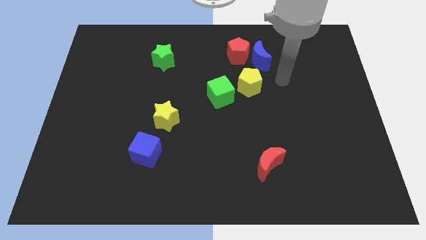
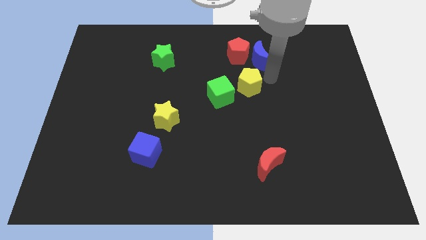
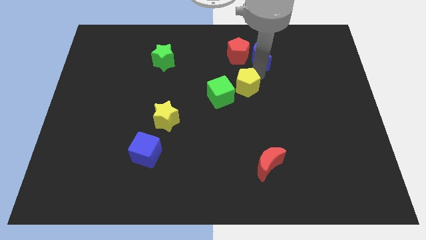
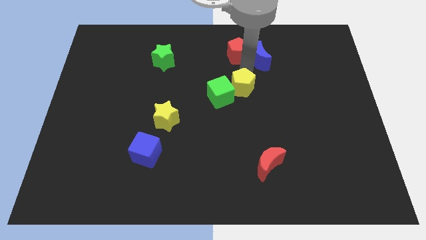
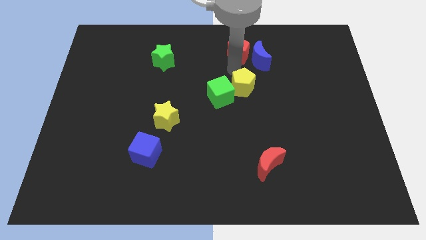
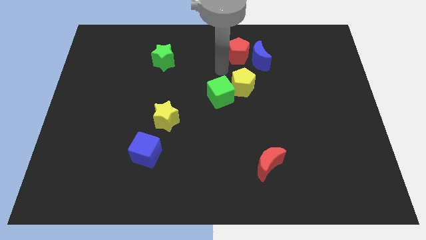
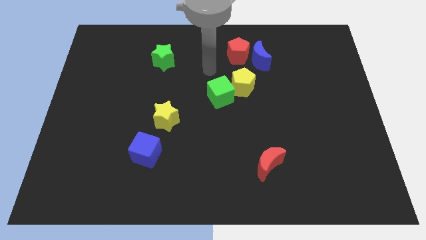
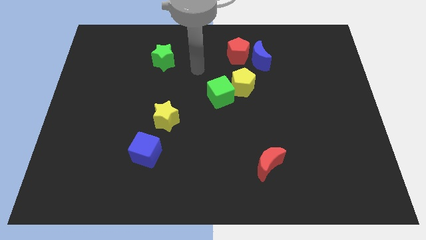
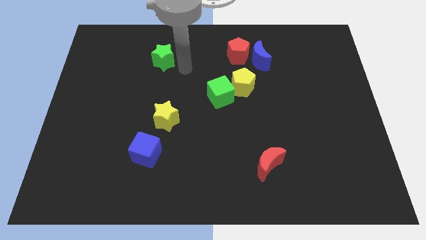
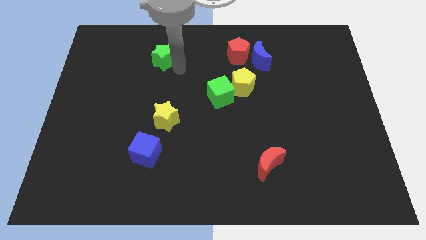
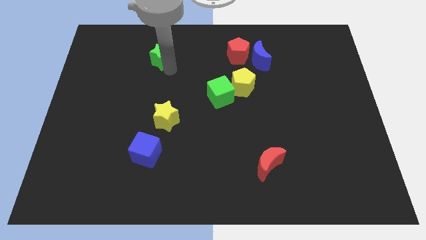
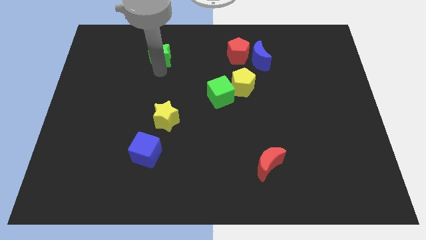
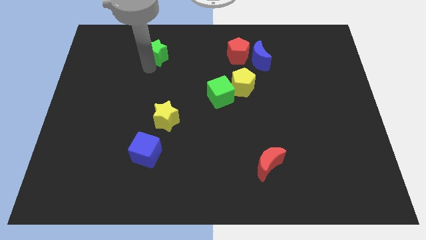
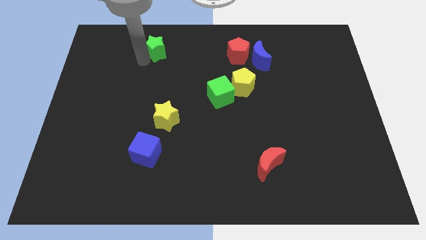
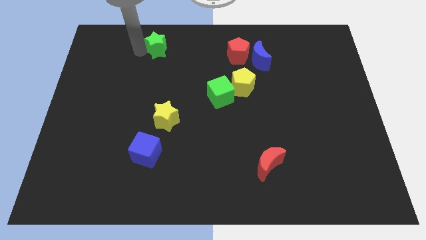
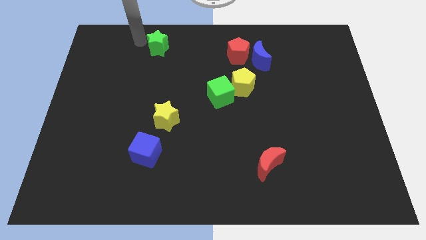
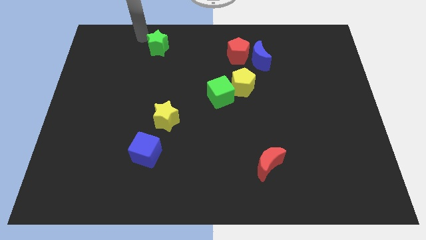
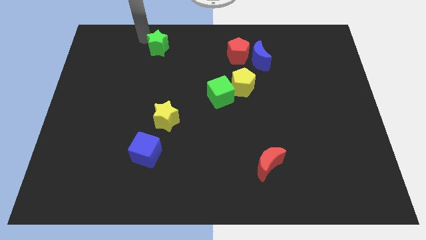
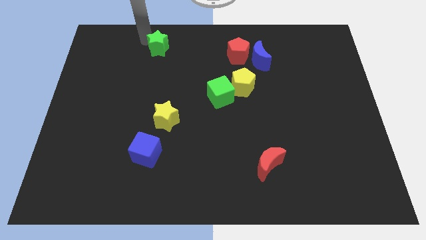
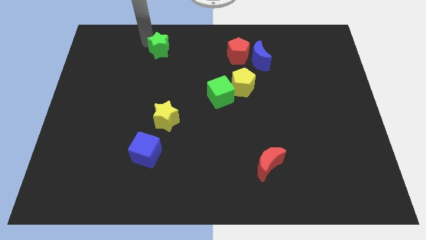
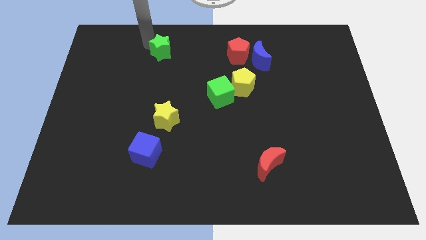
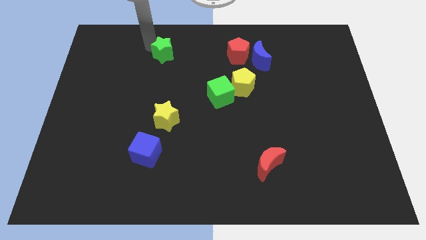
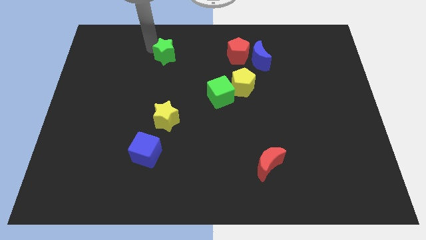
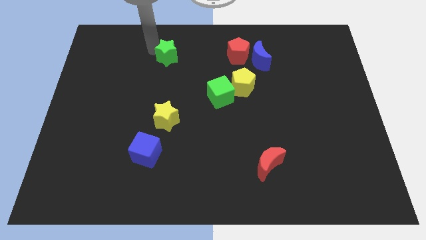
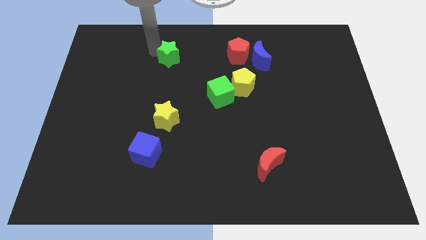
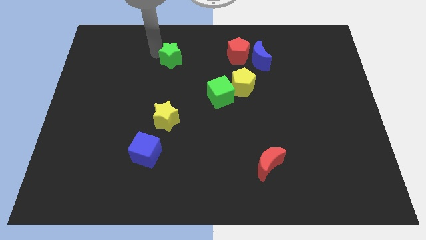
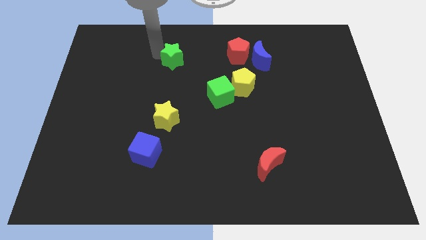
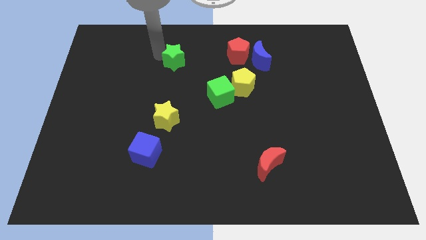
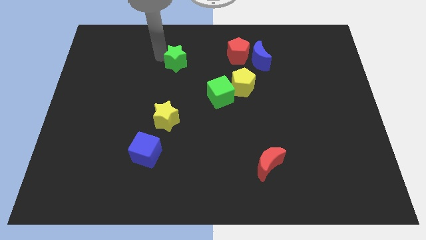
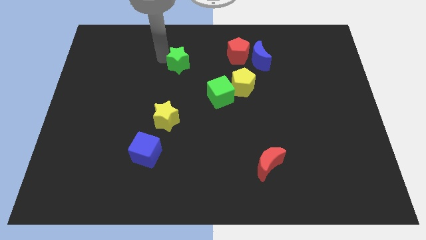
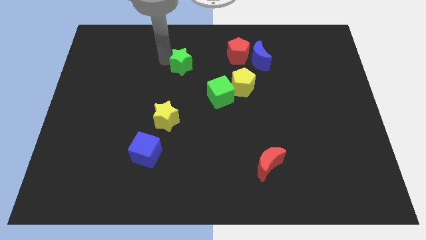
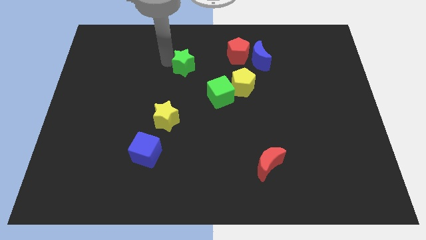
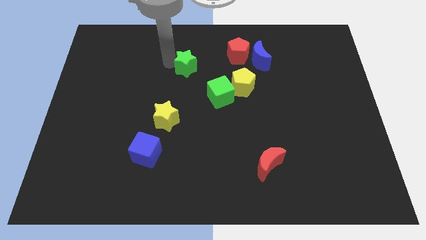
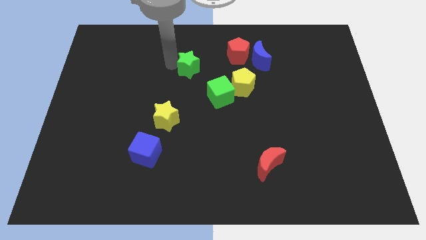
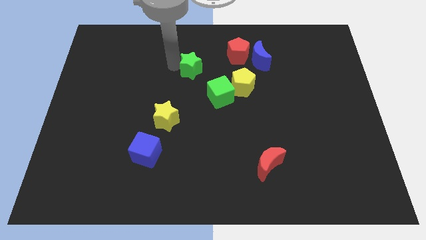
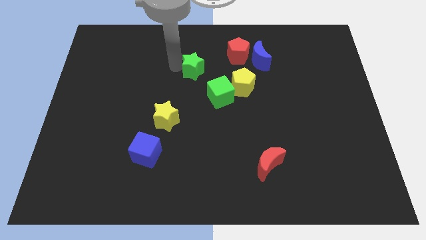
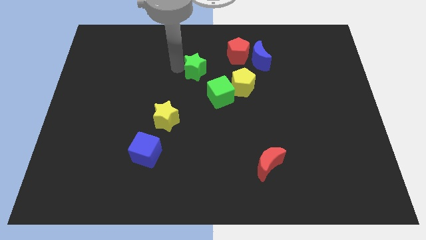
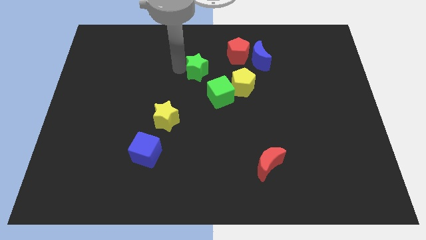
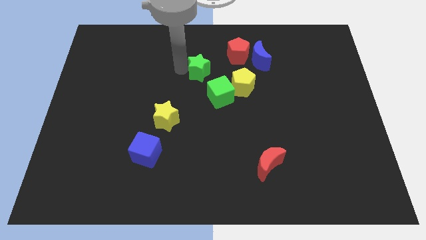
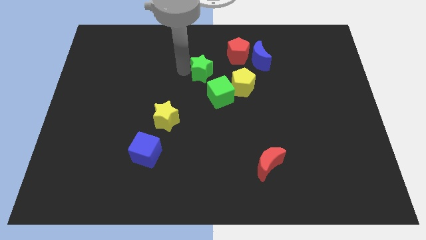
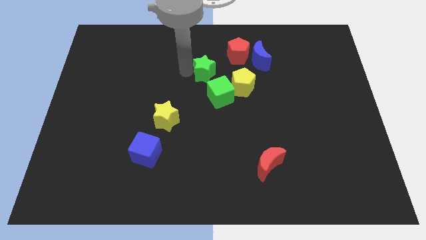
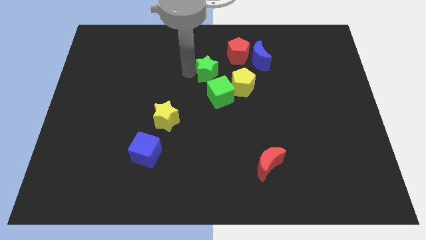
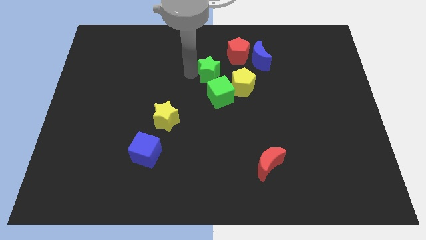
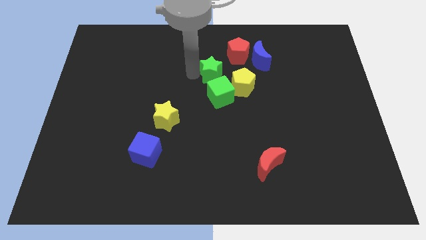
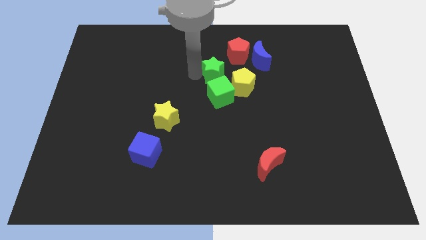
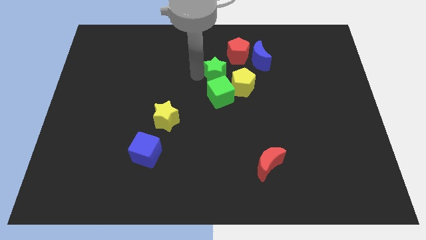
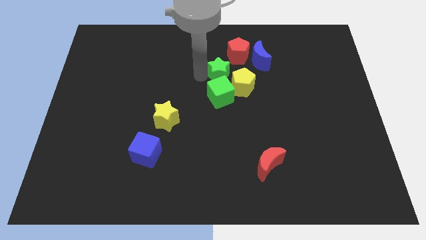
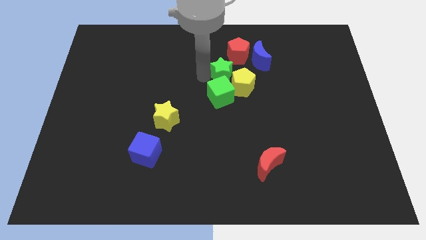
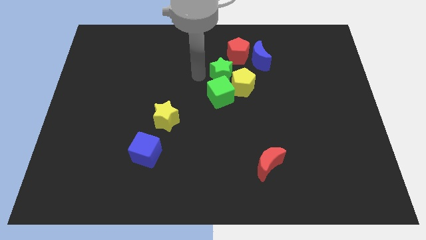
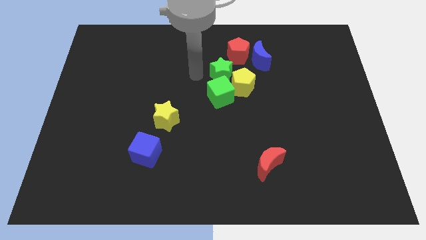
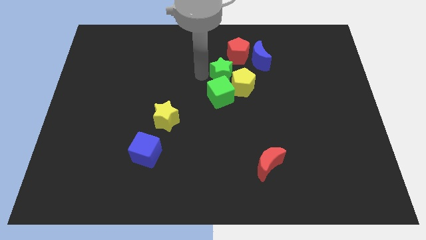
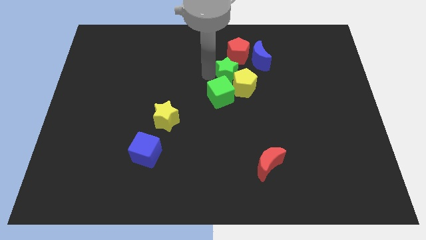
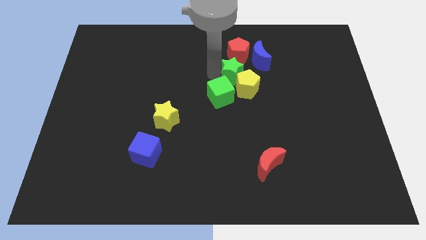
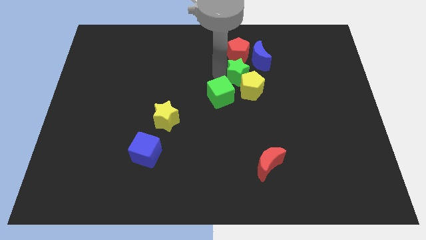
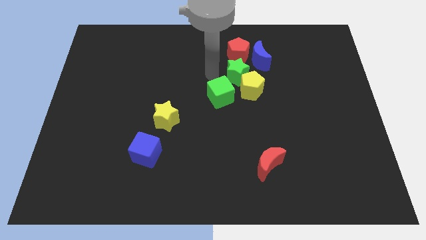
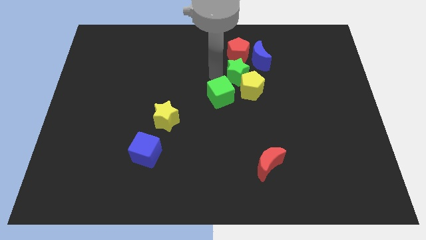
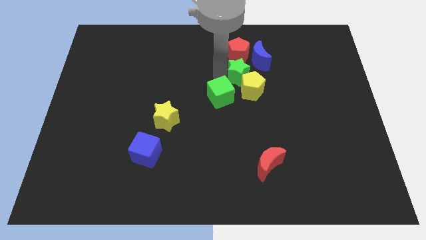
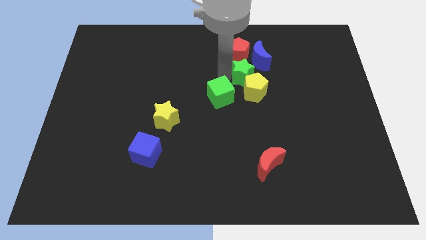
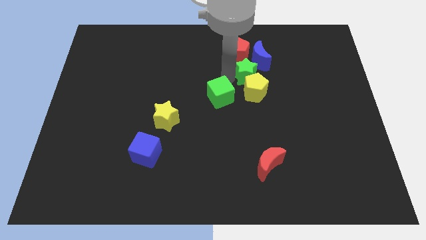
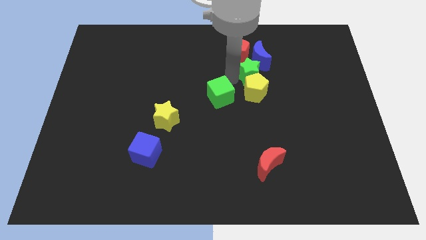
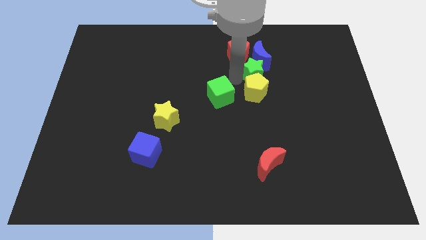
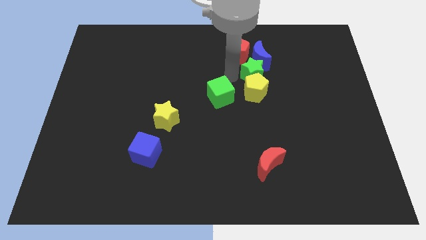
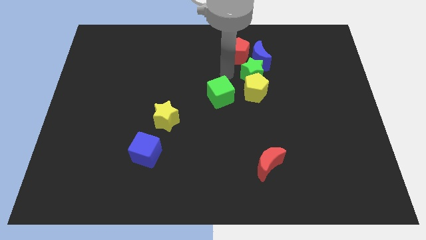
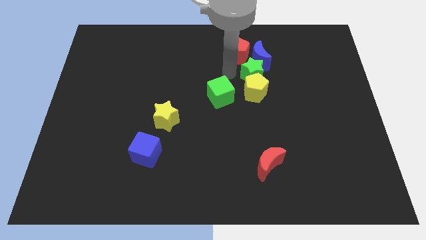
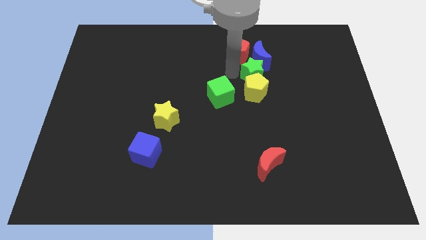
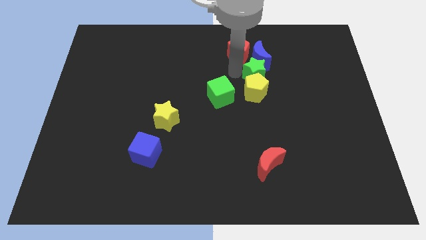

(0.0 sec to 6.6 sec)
slide the green star to the bottom right of the blue moon

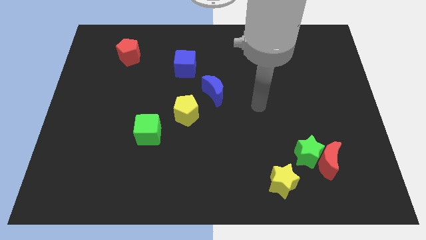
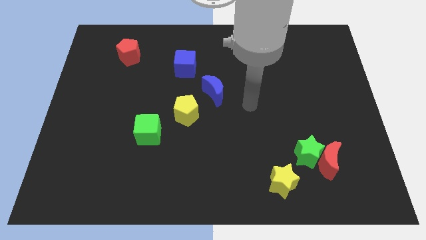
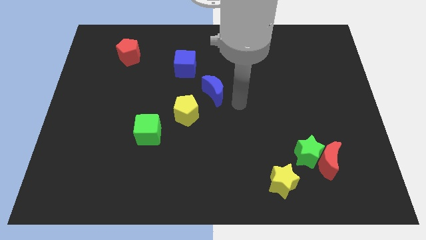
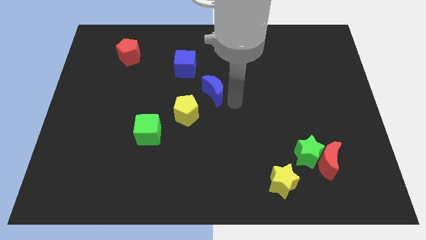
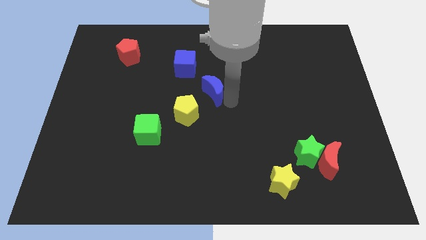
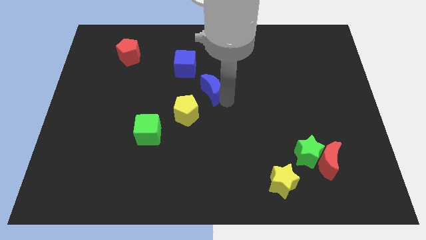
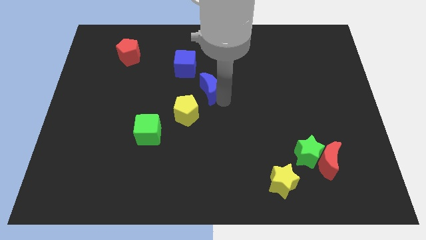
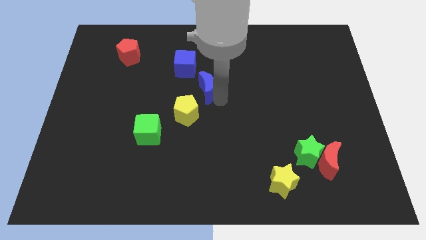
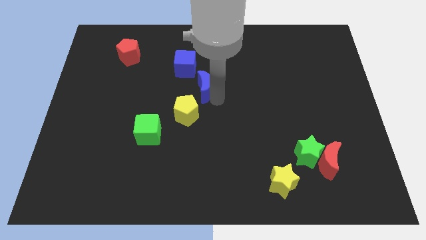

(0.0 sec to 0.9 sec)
move the blue moon to the top side of the yellow pentagon
